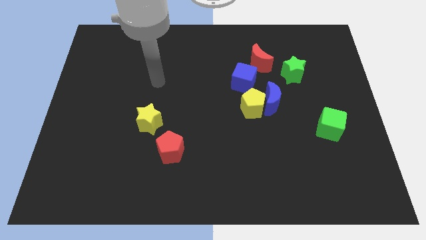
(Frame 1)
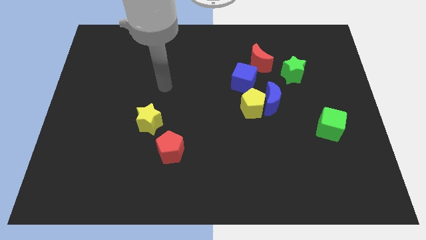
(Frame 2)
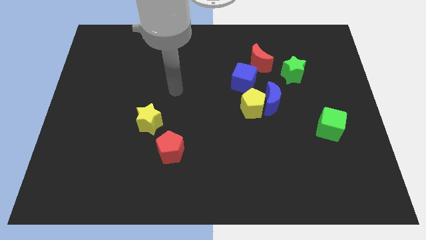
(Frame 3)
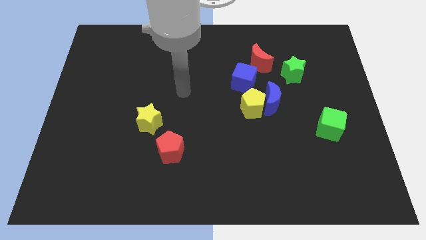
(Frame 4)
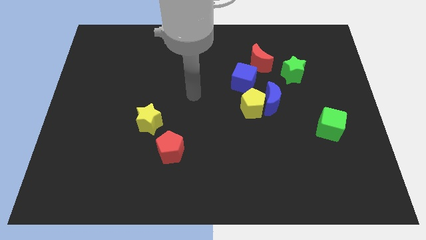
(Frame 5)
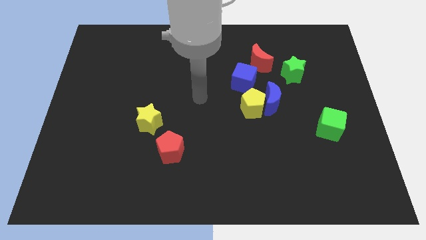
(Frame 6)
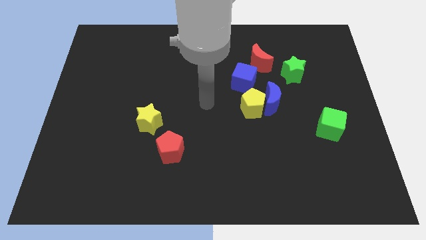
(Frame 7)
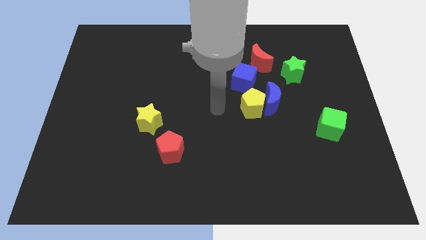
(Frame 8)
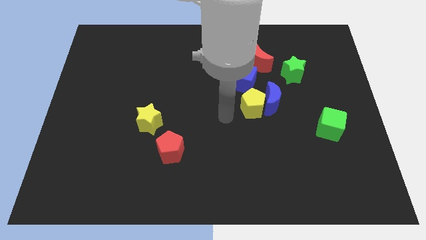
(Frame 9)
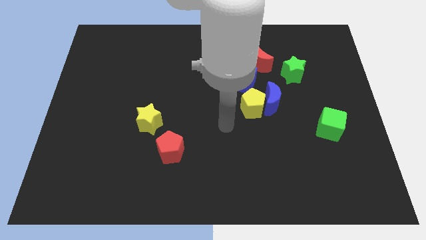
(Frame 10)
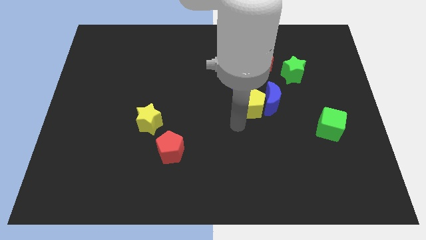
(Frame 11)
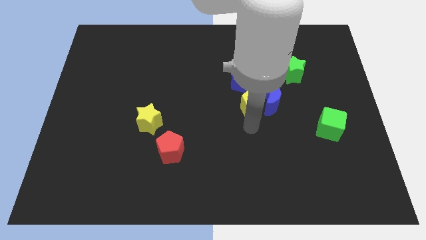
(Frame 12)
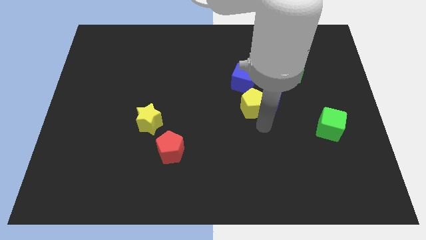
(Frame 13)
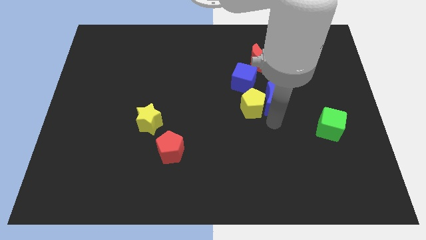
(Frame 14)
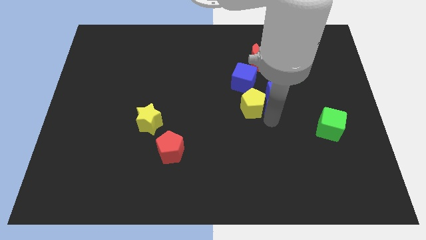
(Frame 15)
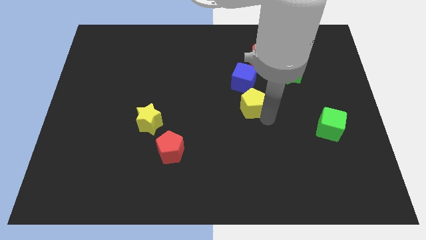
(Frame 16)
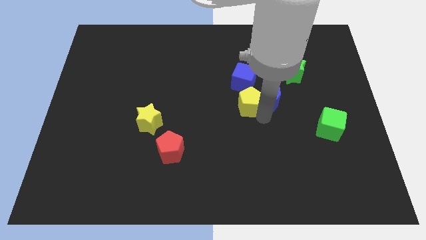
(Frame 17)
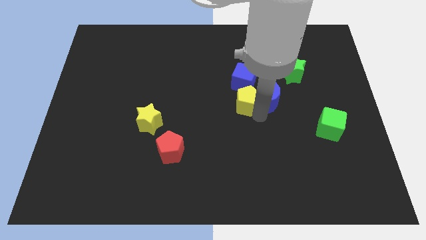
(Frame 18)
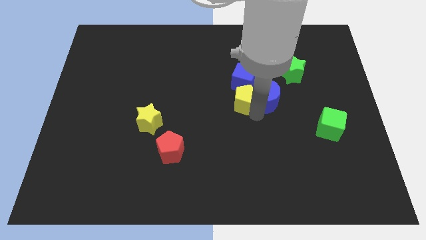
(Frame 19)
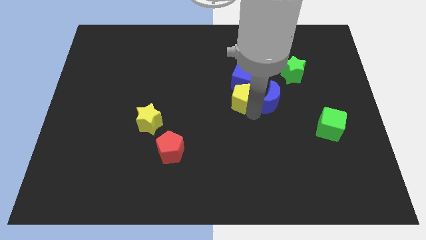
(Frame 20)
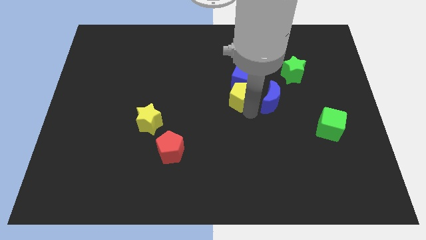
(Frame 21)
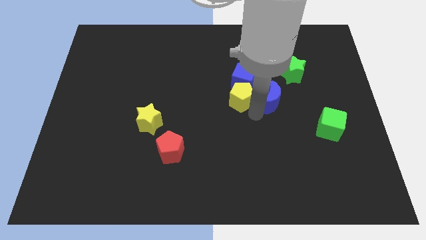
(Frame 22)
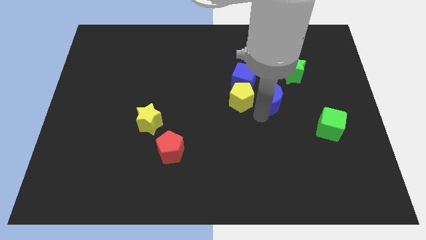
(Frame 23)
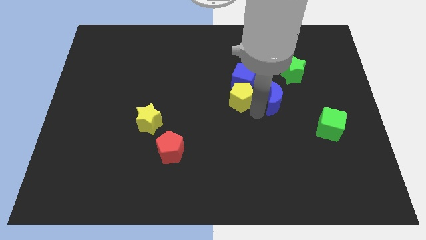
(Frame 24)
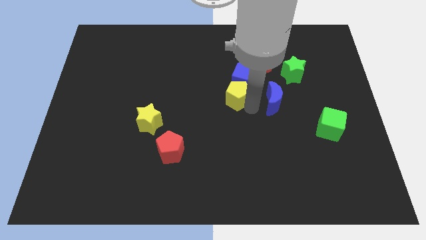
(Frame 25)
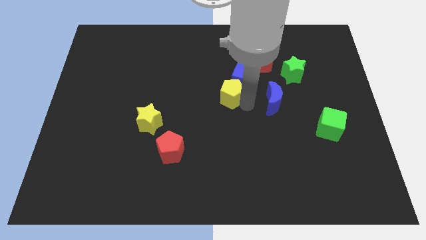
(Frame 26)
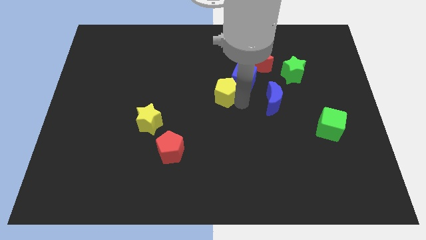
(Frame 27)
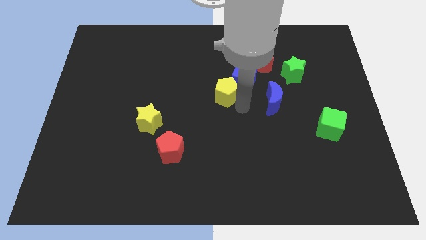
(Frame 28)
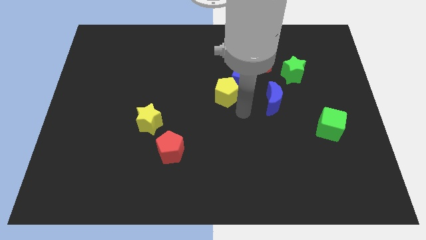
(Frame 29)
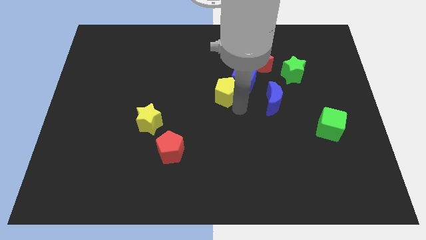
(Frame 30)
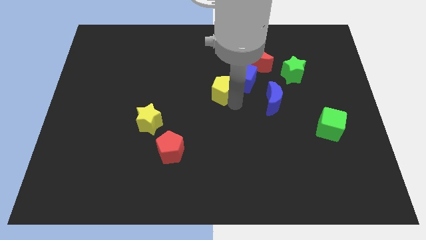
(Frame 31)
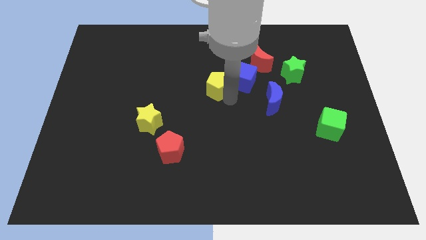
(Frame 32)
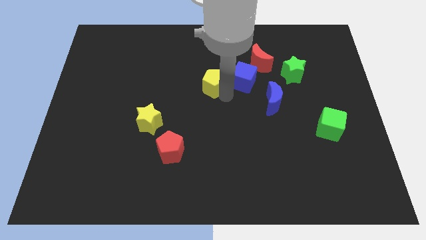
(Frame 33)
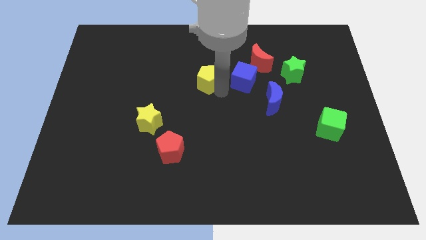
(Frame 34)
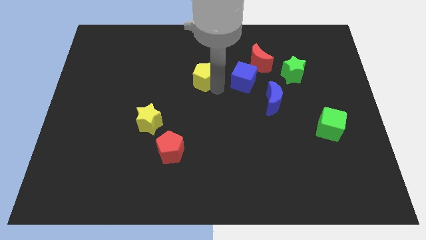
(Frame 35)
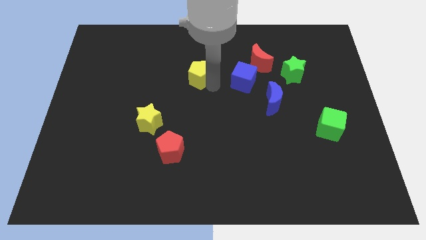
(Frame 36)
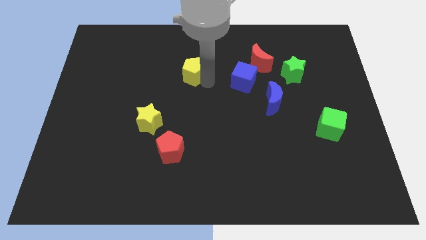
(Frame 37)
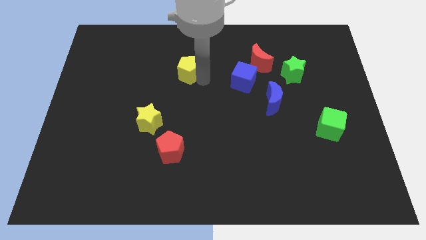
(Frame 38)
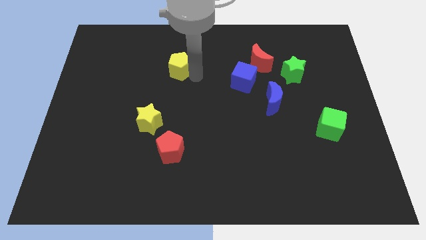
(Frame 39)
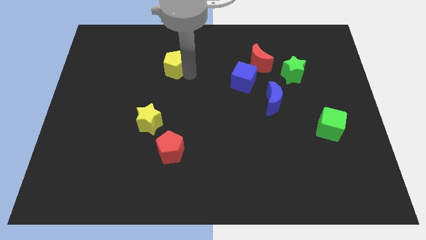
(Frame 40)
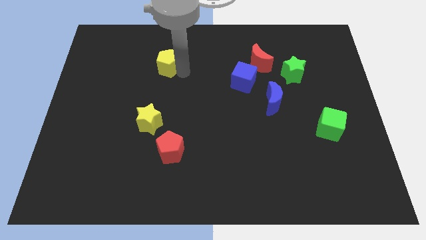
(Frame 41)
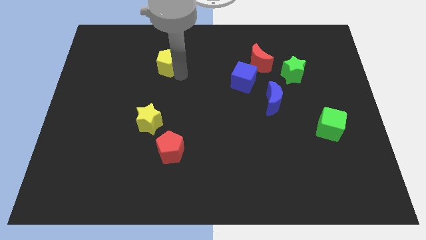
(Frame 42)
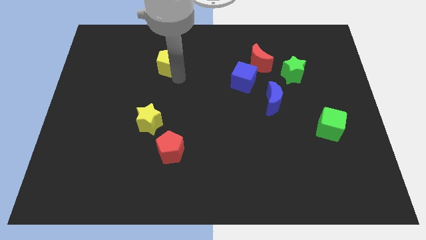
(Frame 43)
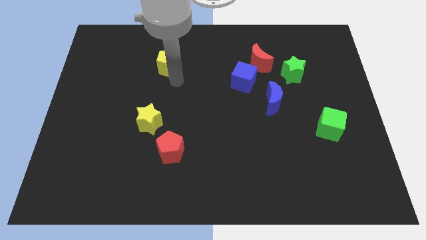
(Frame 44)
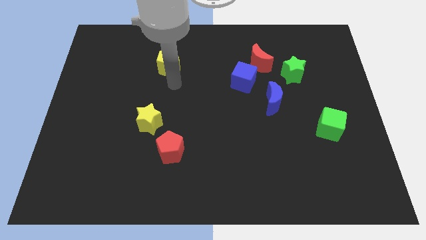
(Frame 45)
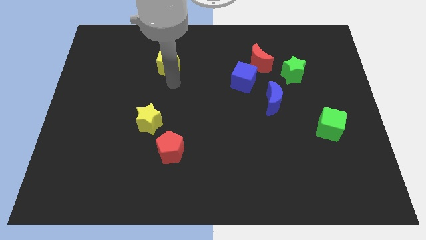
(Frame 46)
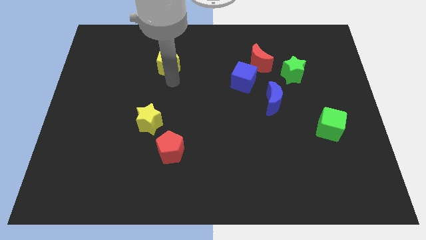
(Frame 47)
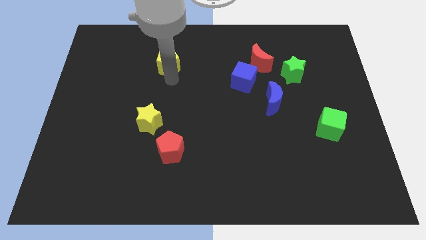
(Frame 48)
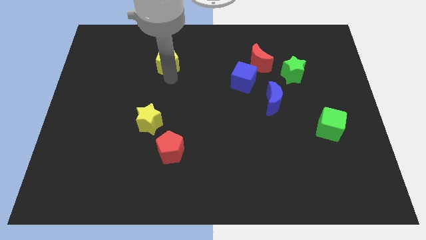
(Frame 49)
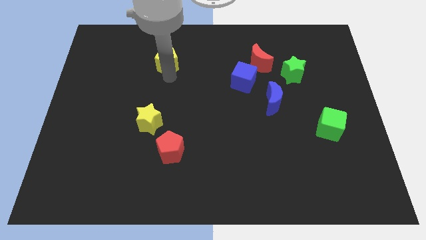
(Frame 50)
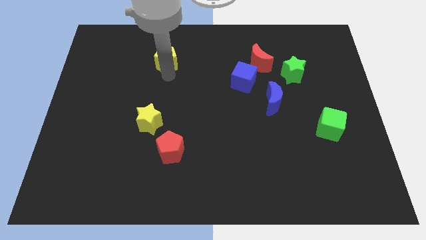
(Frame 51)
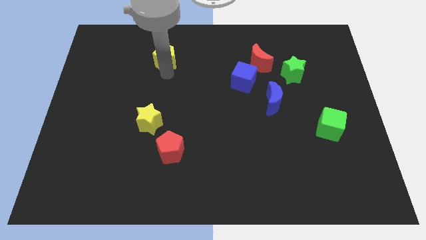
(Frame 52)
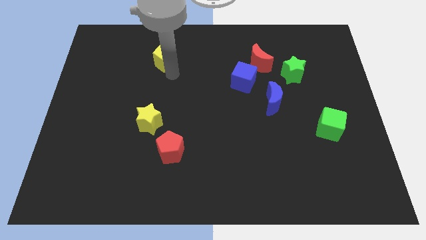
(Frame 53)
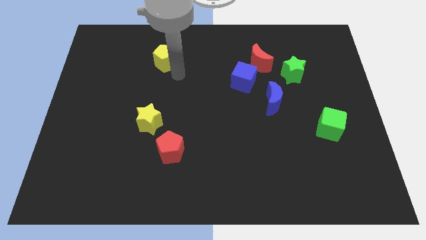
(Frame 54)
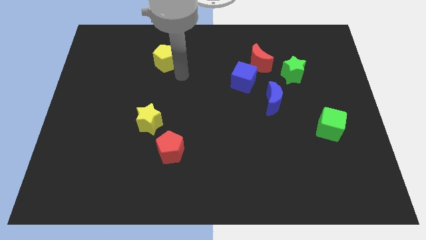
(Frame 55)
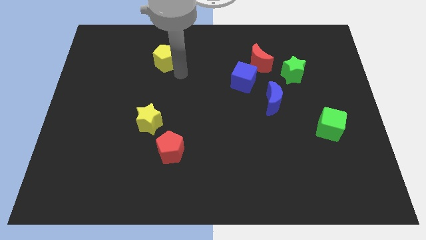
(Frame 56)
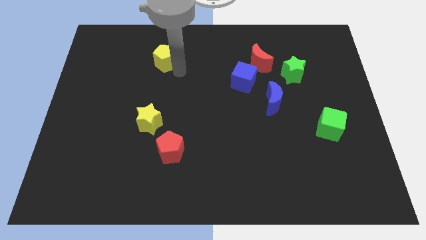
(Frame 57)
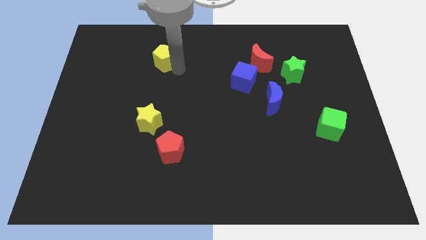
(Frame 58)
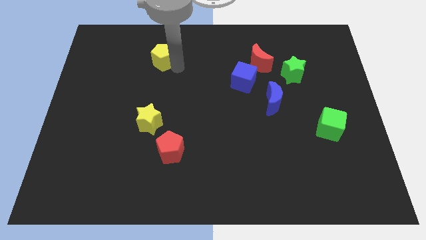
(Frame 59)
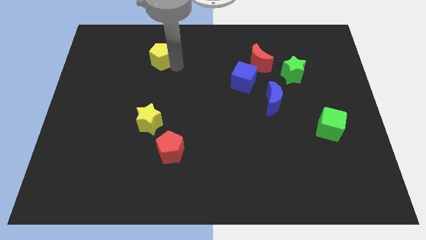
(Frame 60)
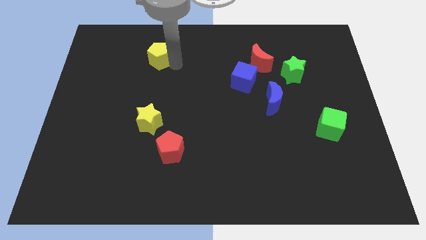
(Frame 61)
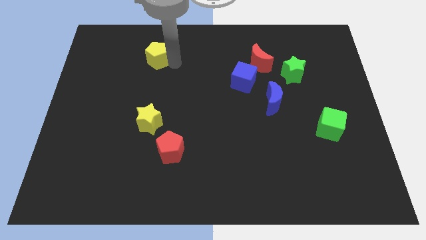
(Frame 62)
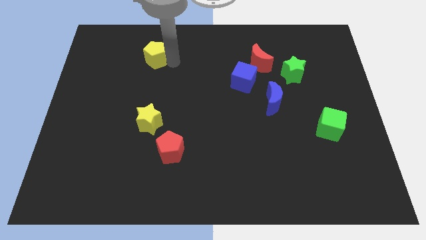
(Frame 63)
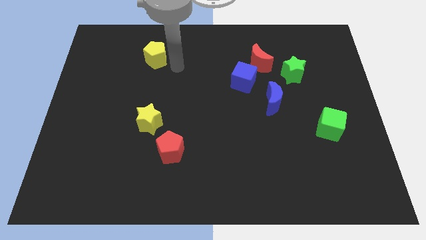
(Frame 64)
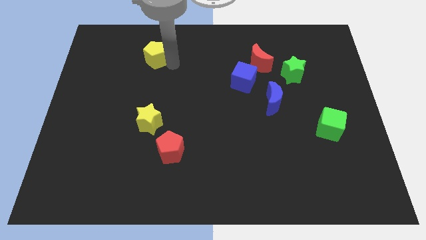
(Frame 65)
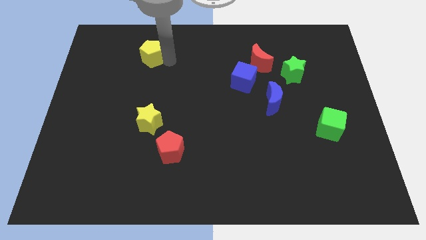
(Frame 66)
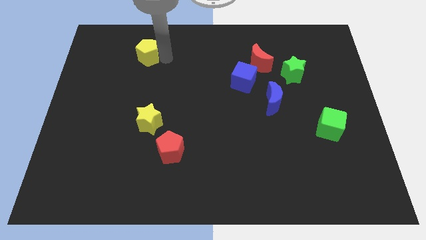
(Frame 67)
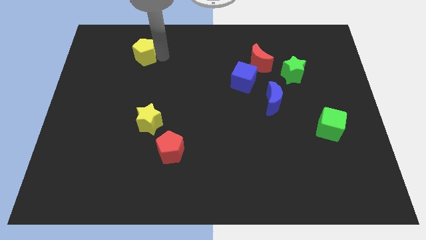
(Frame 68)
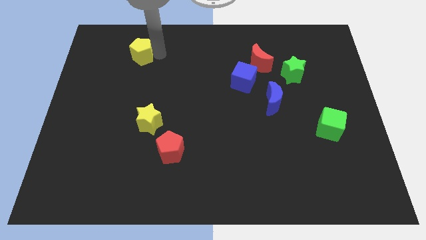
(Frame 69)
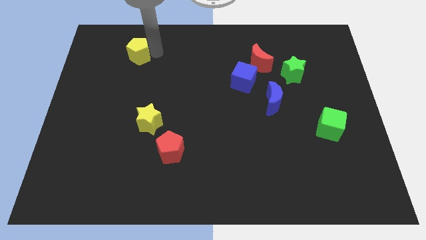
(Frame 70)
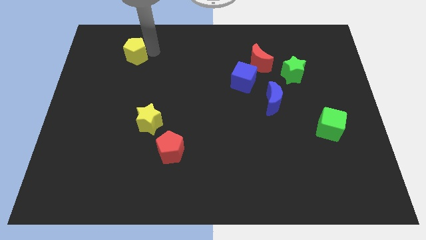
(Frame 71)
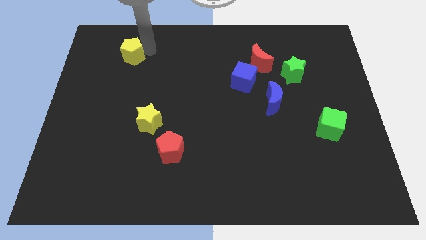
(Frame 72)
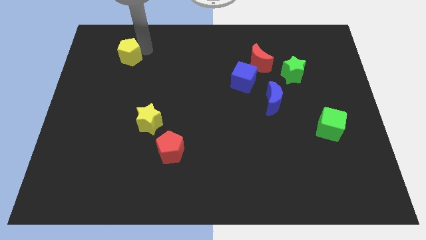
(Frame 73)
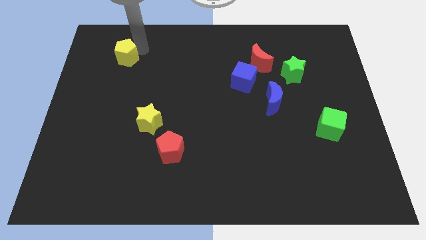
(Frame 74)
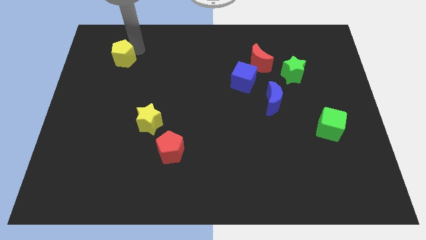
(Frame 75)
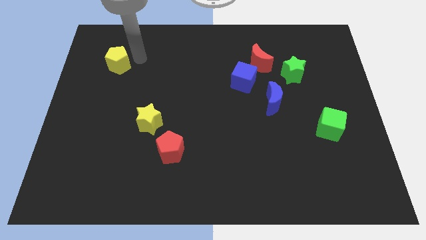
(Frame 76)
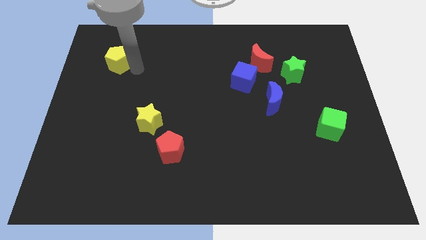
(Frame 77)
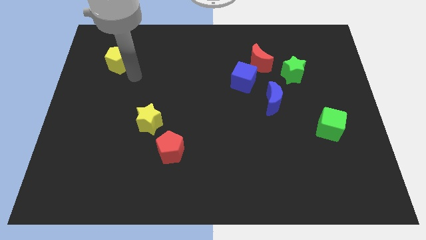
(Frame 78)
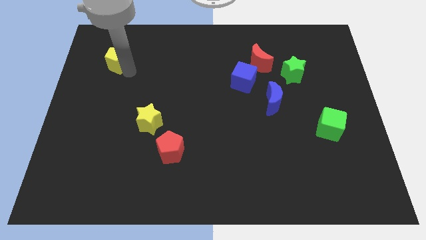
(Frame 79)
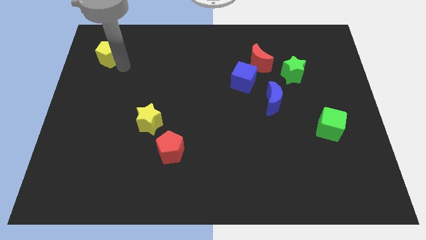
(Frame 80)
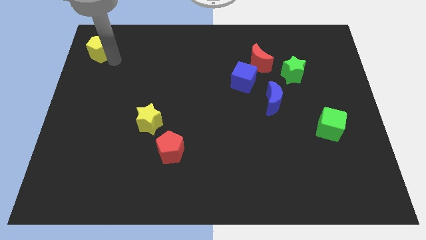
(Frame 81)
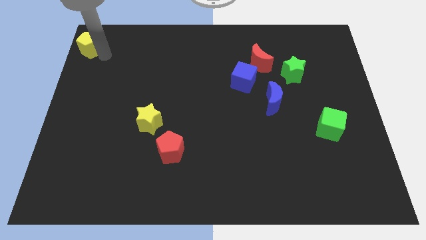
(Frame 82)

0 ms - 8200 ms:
put the yellow pentagon to the top left of the board

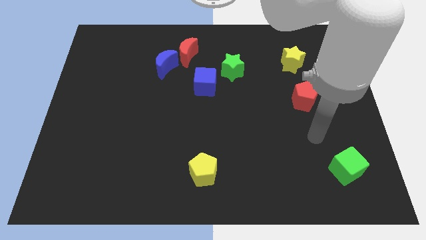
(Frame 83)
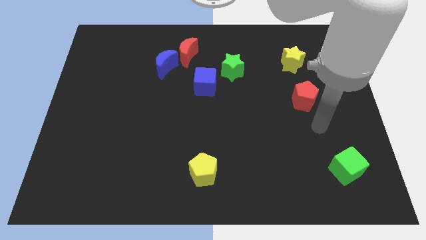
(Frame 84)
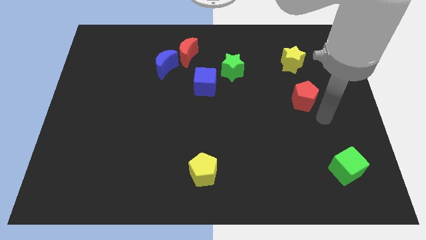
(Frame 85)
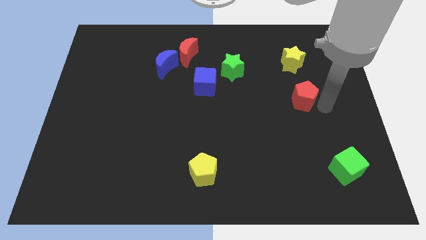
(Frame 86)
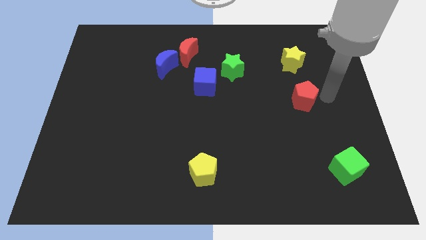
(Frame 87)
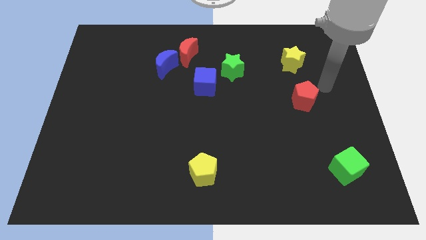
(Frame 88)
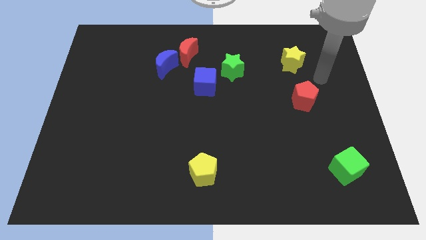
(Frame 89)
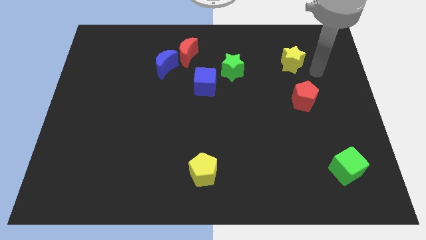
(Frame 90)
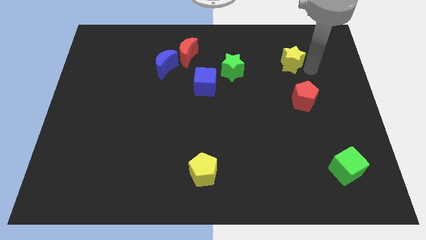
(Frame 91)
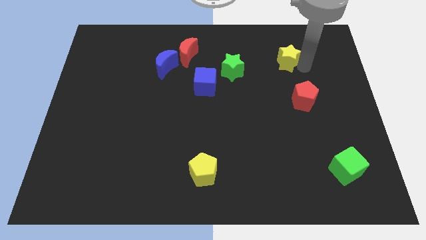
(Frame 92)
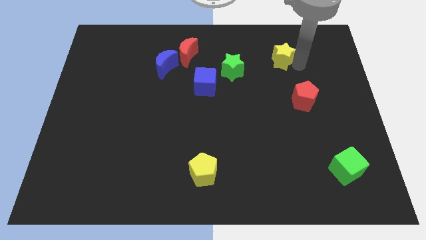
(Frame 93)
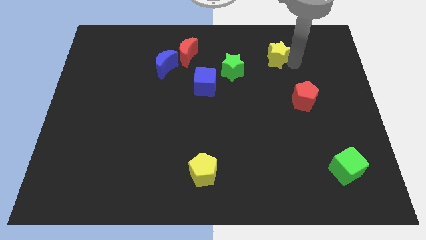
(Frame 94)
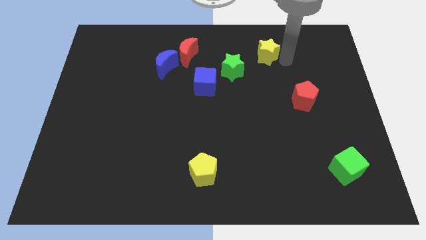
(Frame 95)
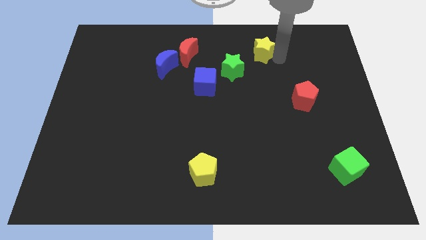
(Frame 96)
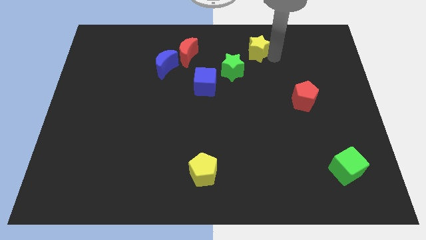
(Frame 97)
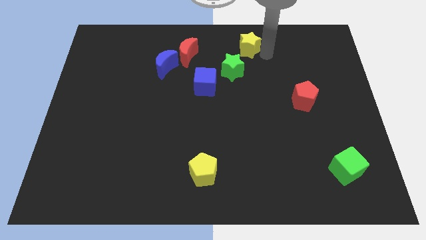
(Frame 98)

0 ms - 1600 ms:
move the yellow star to the top side
